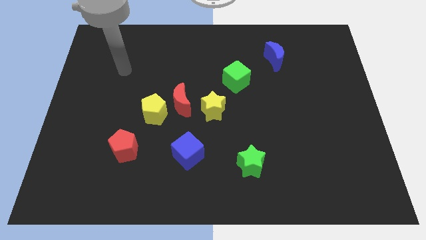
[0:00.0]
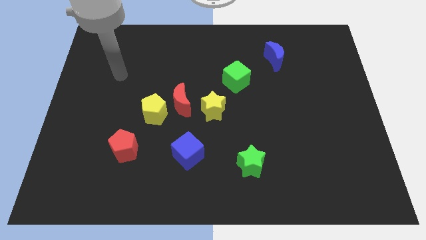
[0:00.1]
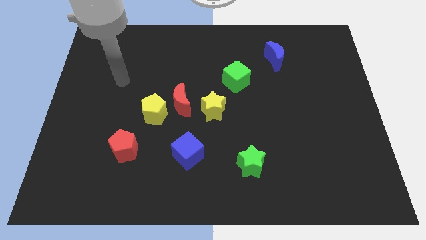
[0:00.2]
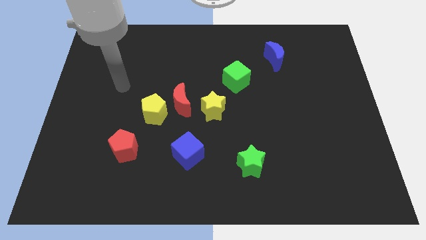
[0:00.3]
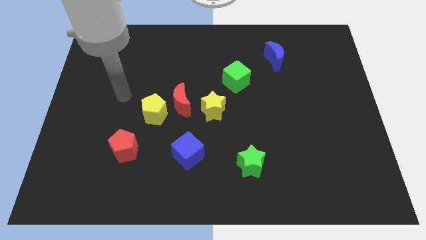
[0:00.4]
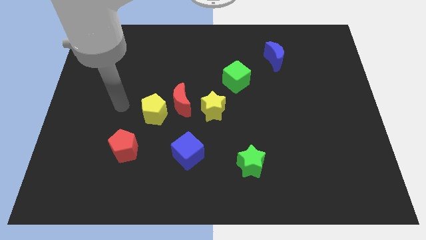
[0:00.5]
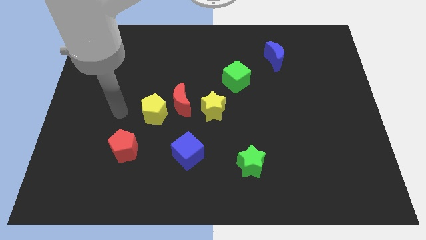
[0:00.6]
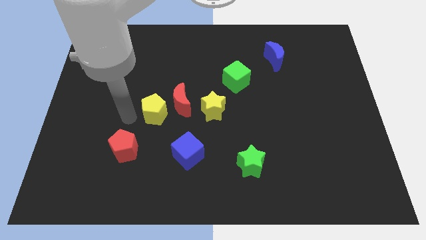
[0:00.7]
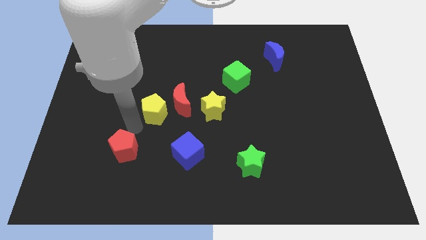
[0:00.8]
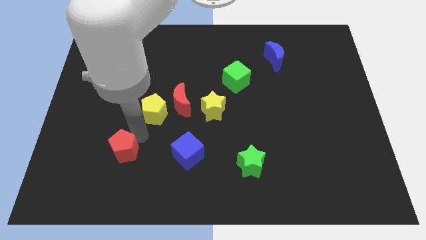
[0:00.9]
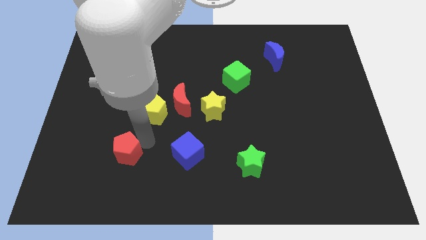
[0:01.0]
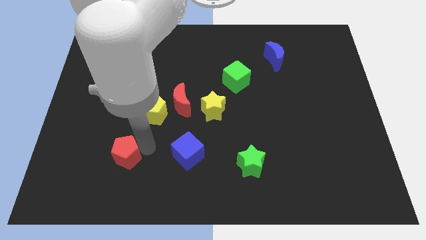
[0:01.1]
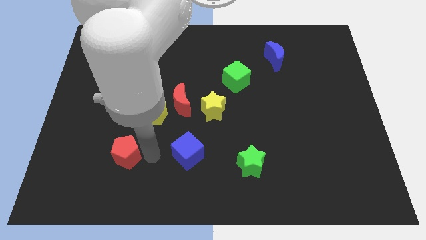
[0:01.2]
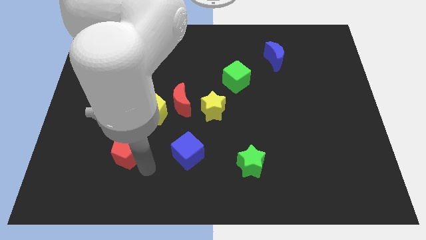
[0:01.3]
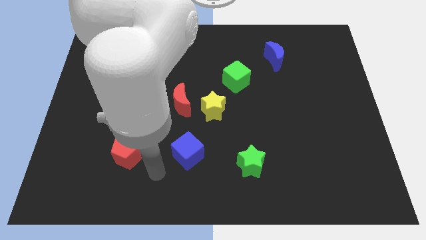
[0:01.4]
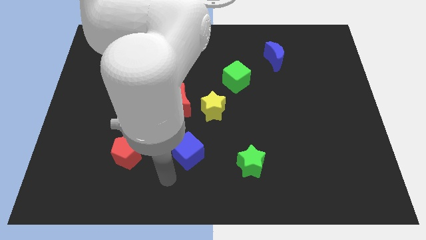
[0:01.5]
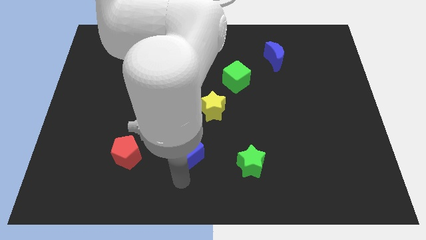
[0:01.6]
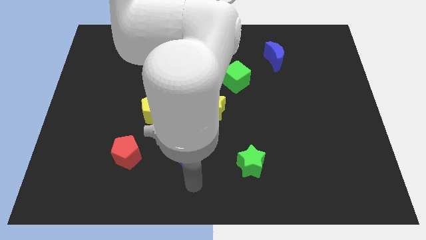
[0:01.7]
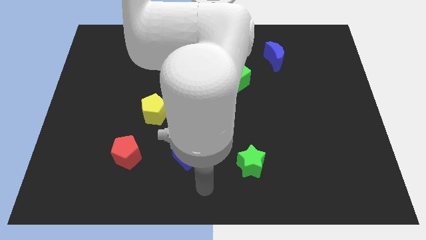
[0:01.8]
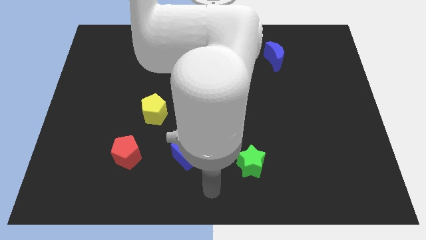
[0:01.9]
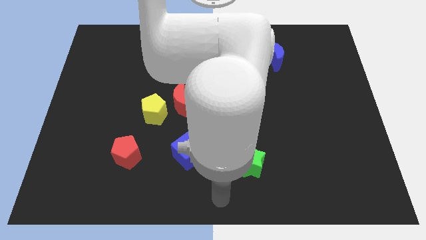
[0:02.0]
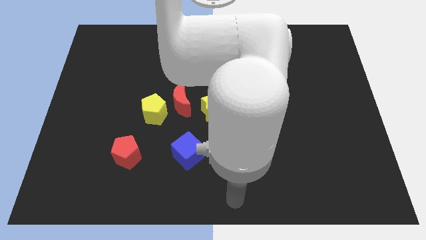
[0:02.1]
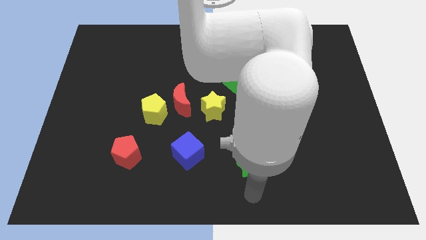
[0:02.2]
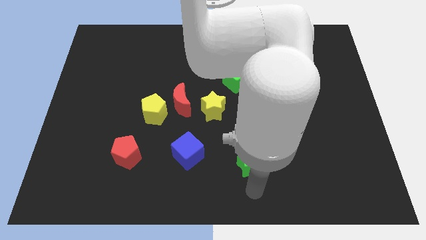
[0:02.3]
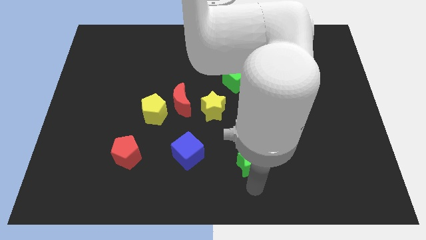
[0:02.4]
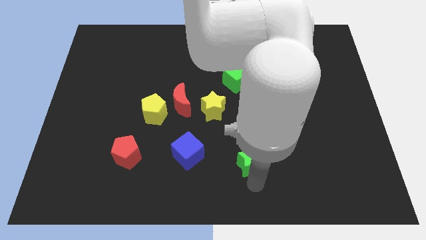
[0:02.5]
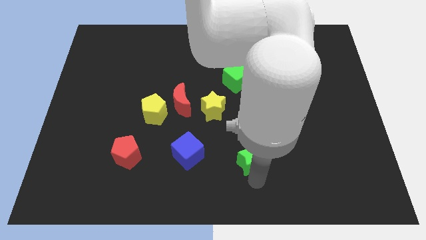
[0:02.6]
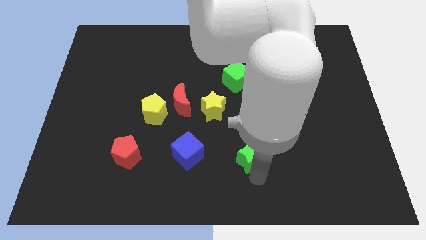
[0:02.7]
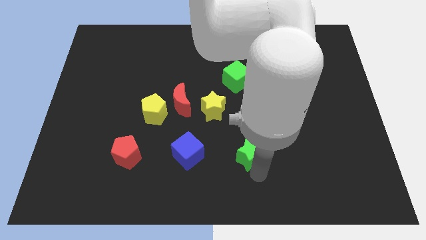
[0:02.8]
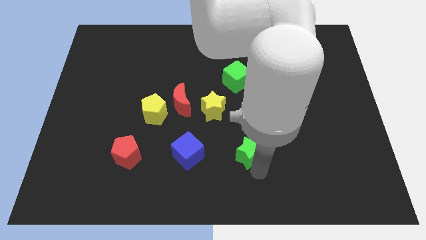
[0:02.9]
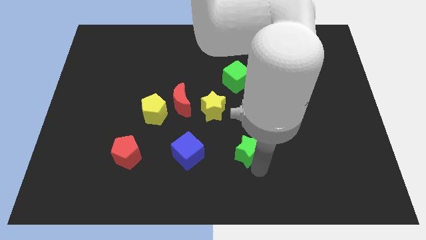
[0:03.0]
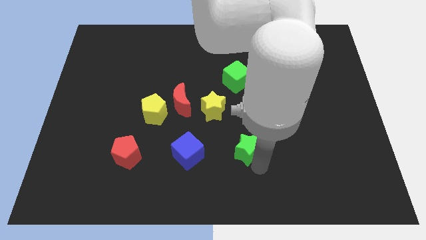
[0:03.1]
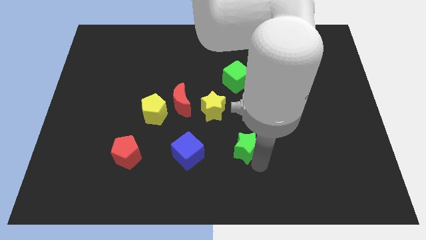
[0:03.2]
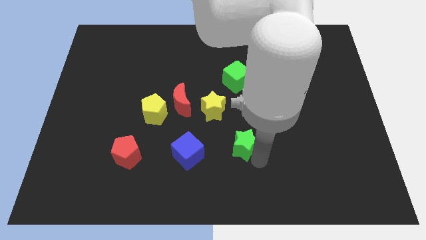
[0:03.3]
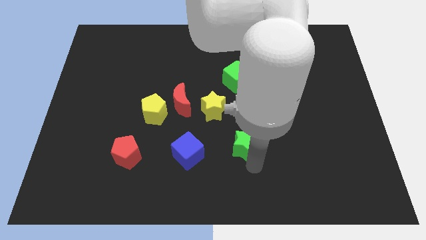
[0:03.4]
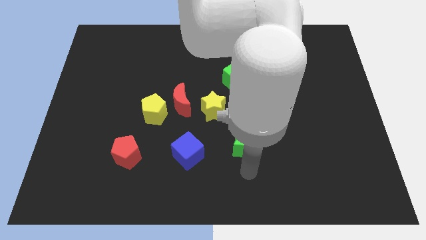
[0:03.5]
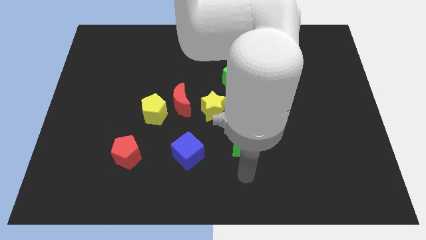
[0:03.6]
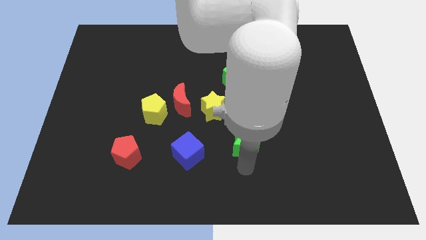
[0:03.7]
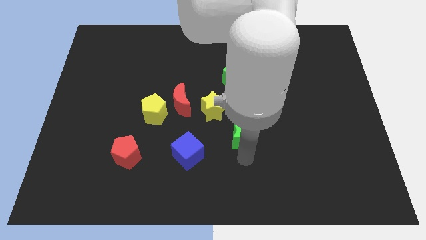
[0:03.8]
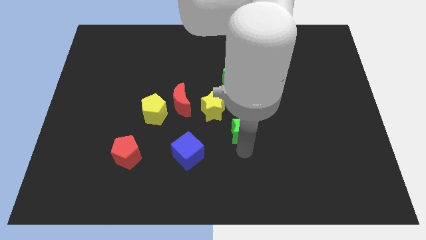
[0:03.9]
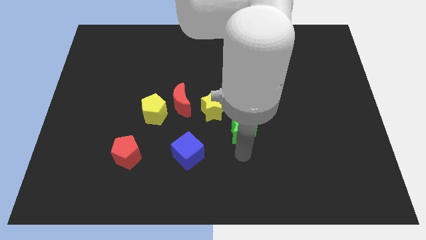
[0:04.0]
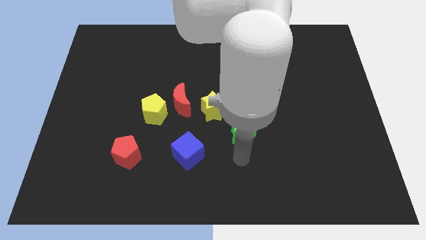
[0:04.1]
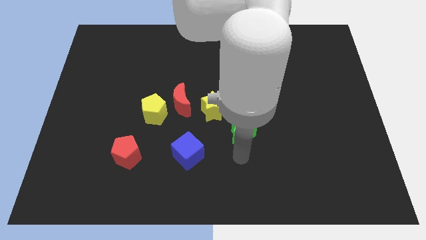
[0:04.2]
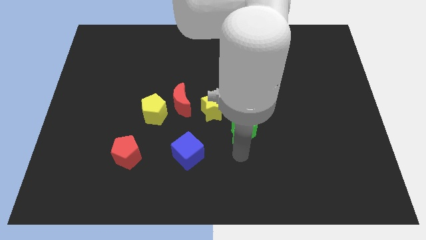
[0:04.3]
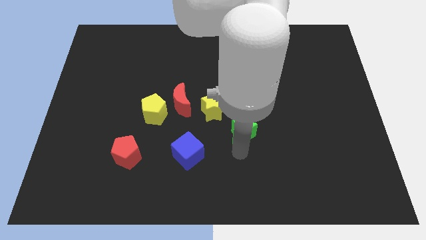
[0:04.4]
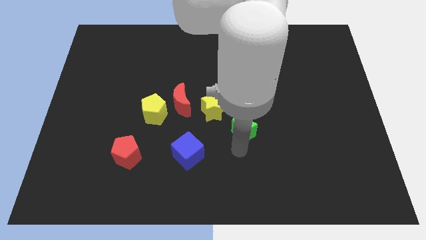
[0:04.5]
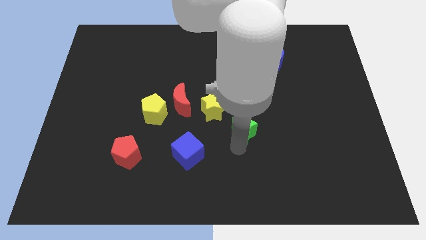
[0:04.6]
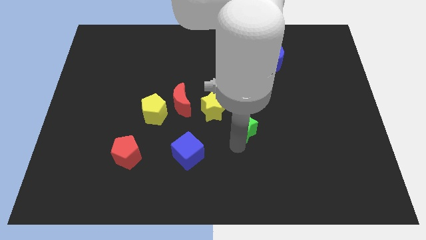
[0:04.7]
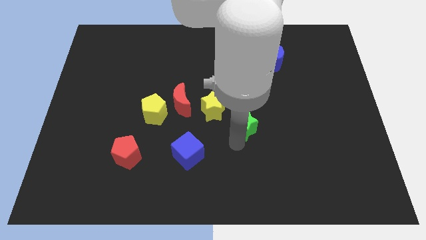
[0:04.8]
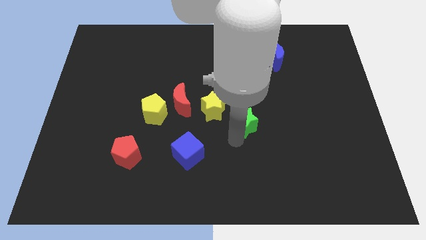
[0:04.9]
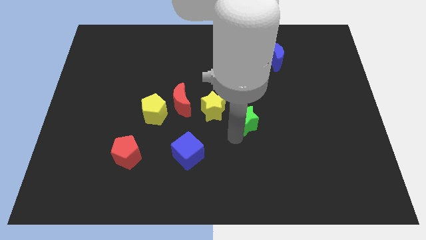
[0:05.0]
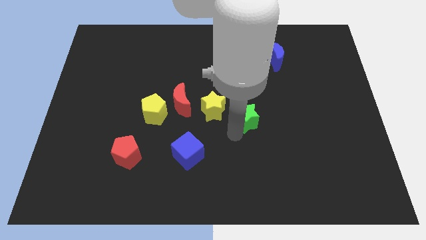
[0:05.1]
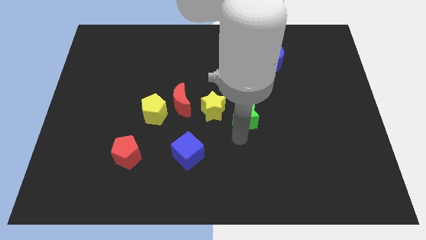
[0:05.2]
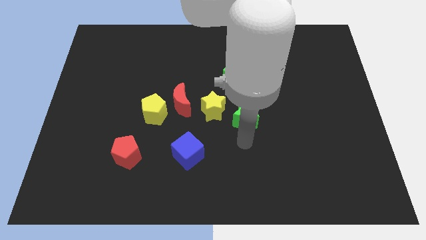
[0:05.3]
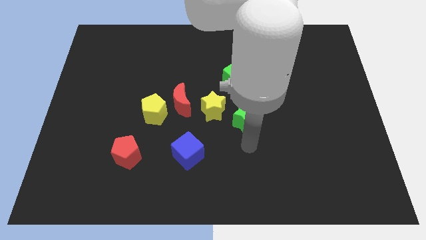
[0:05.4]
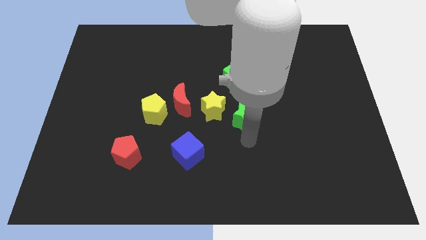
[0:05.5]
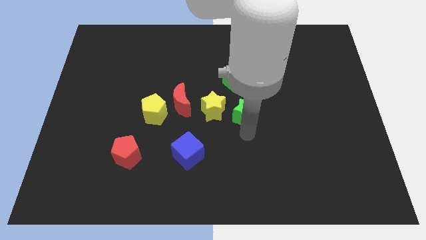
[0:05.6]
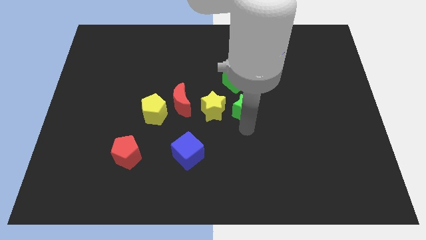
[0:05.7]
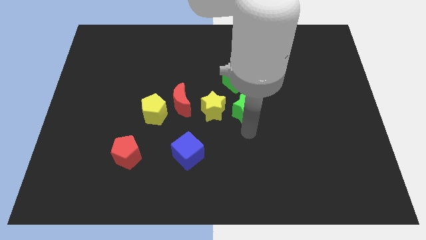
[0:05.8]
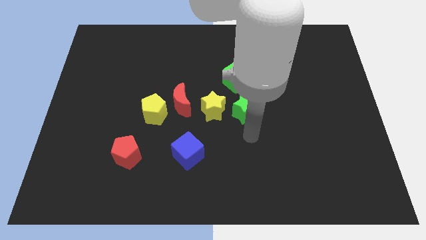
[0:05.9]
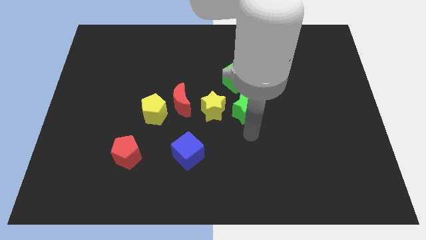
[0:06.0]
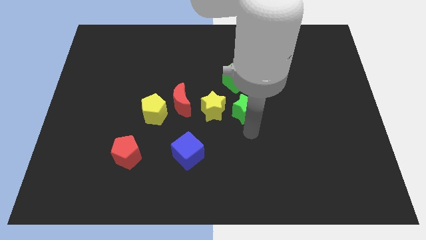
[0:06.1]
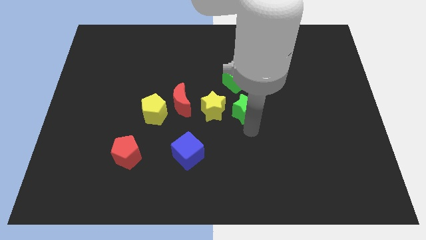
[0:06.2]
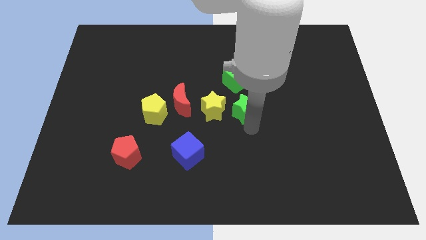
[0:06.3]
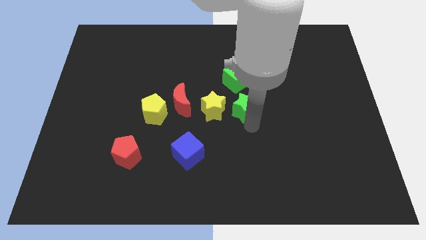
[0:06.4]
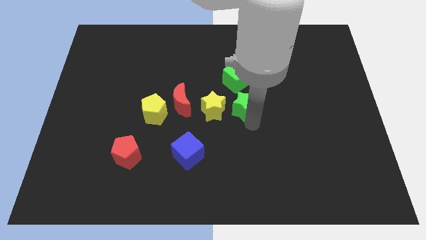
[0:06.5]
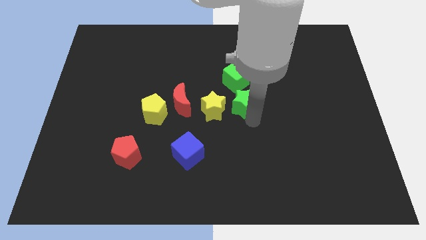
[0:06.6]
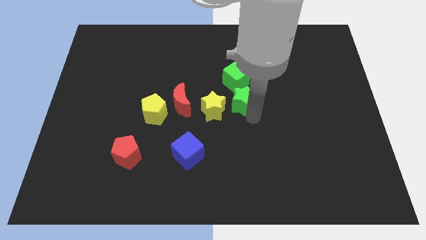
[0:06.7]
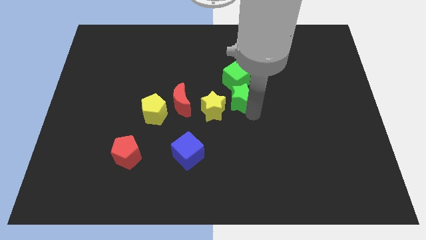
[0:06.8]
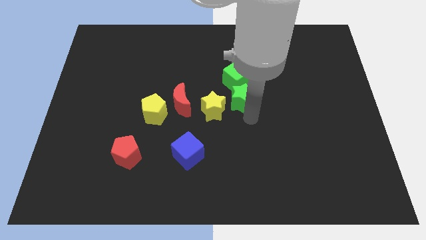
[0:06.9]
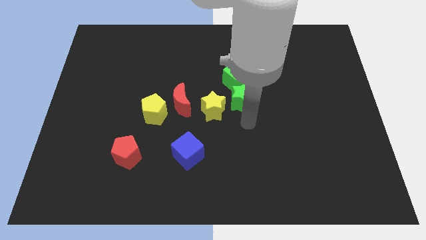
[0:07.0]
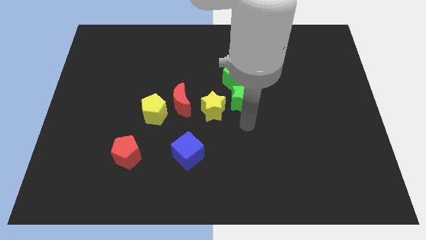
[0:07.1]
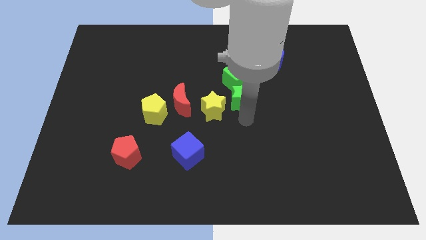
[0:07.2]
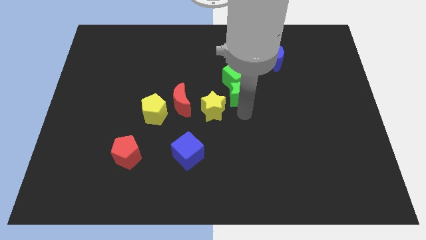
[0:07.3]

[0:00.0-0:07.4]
push the green star close to the green cube
